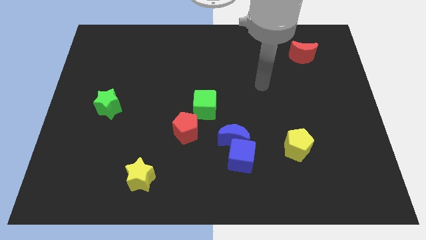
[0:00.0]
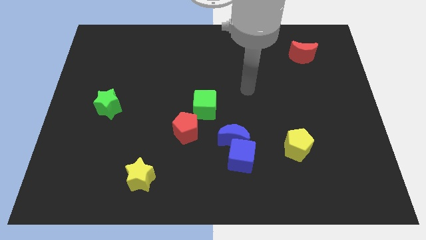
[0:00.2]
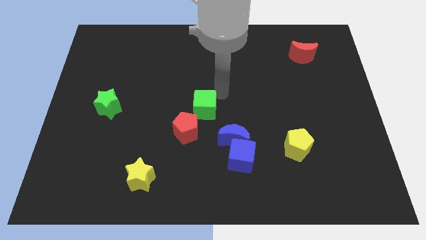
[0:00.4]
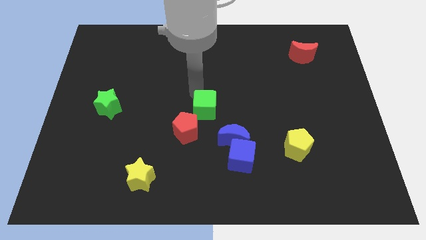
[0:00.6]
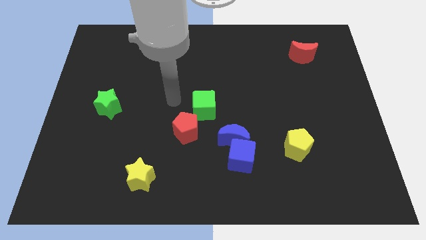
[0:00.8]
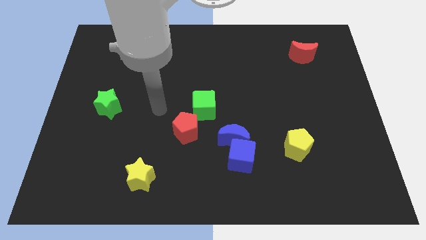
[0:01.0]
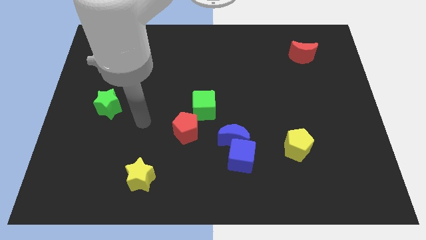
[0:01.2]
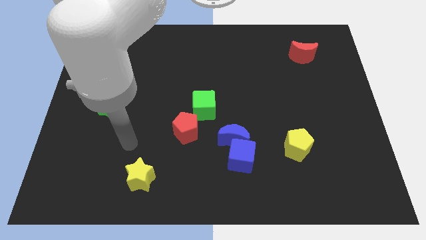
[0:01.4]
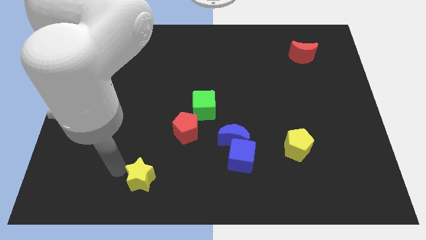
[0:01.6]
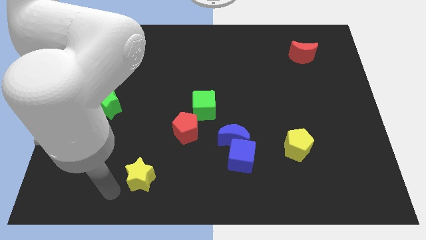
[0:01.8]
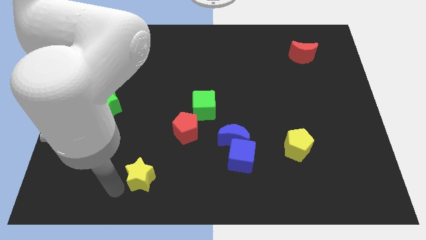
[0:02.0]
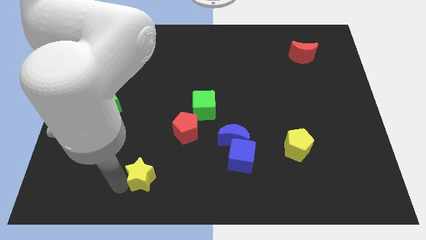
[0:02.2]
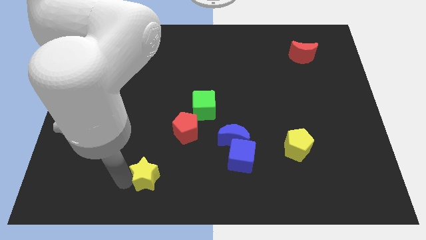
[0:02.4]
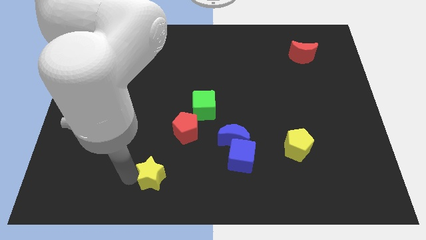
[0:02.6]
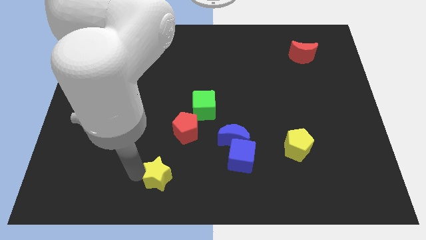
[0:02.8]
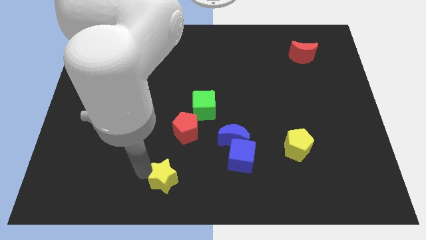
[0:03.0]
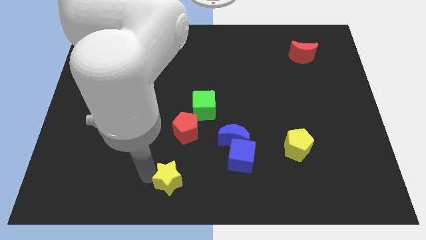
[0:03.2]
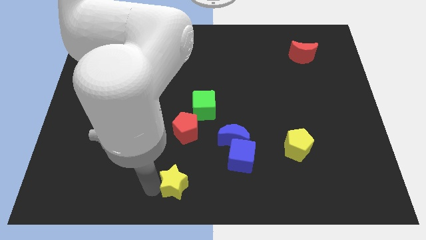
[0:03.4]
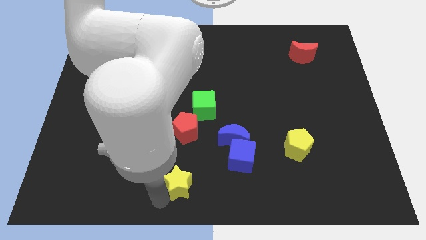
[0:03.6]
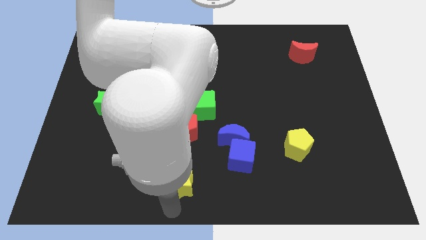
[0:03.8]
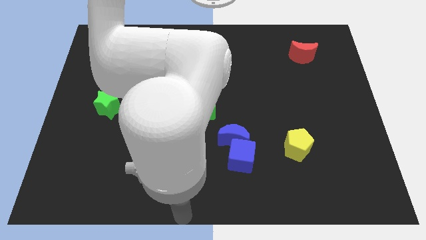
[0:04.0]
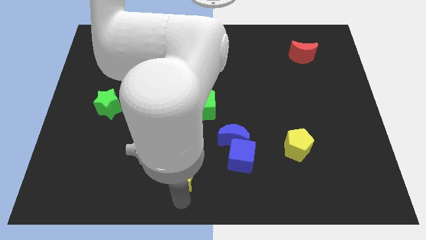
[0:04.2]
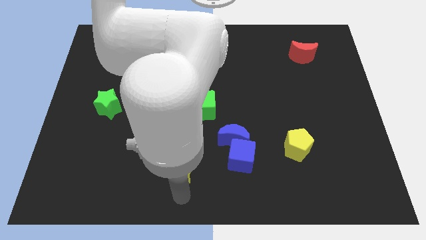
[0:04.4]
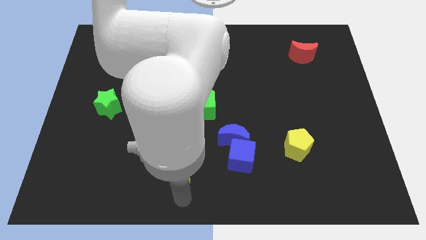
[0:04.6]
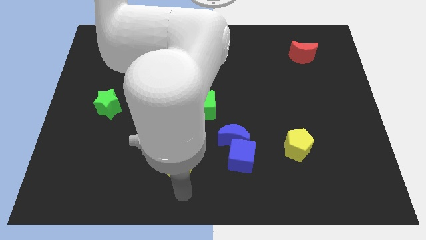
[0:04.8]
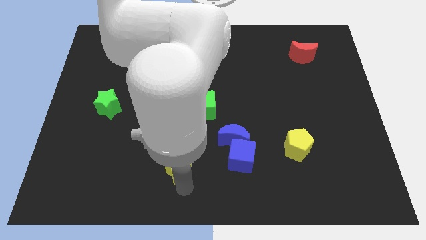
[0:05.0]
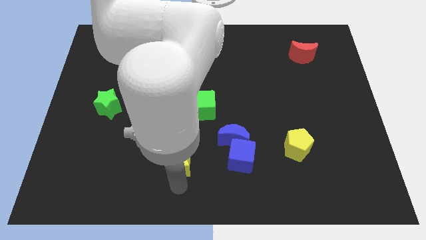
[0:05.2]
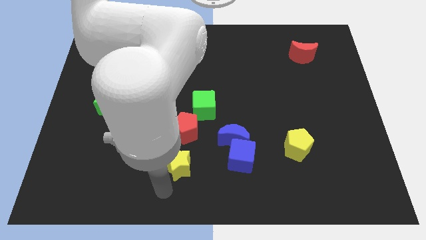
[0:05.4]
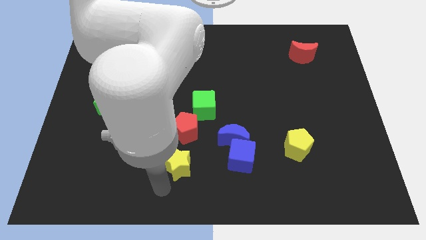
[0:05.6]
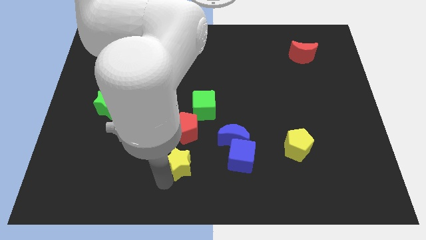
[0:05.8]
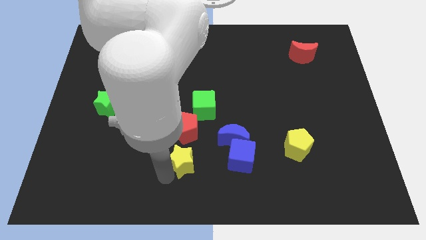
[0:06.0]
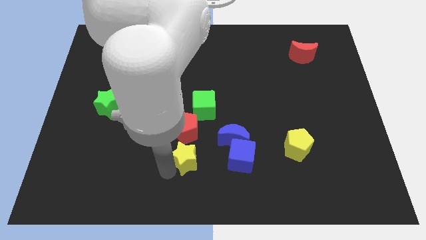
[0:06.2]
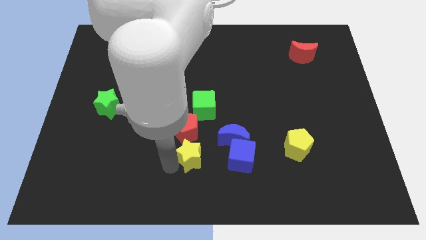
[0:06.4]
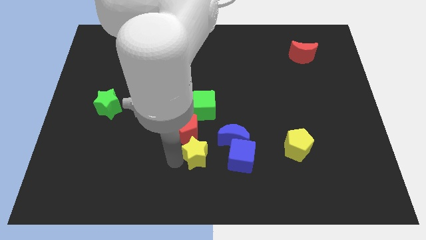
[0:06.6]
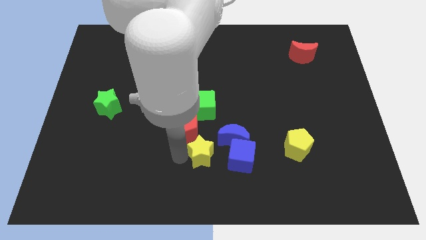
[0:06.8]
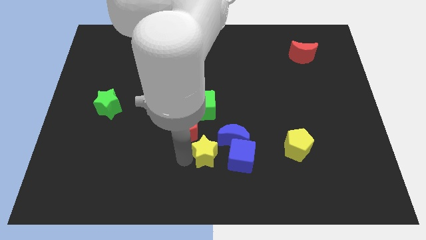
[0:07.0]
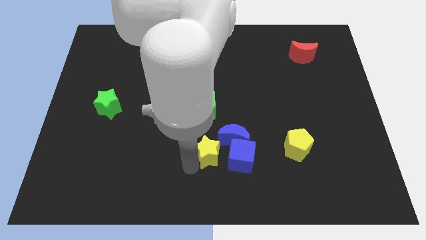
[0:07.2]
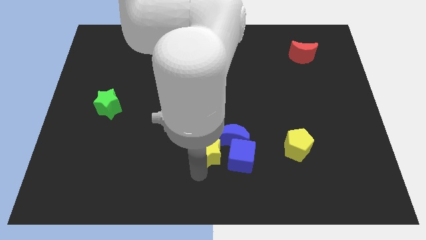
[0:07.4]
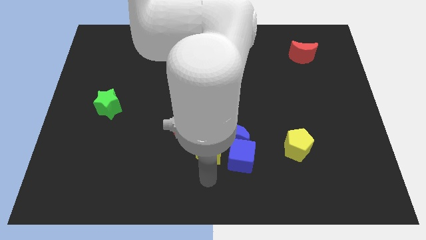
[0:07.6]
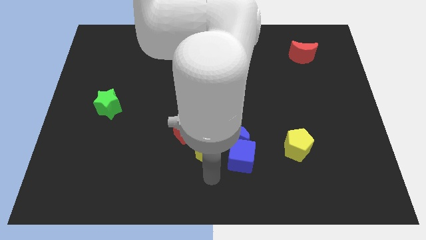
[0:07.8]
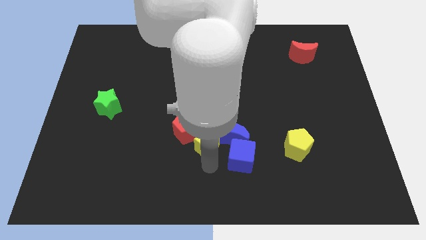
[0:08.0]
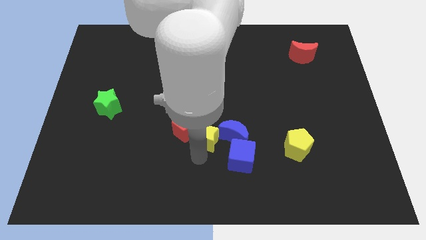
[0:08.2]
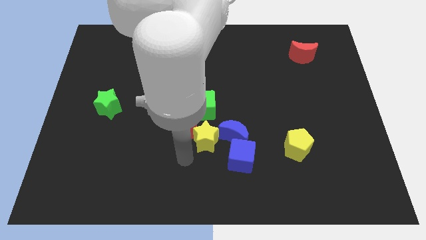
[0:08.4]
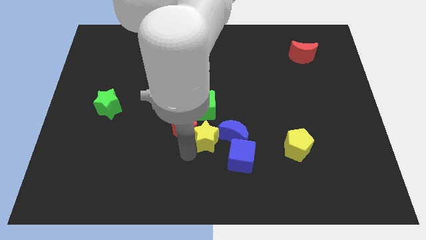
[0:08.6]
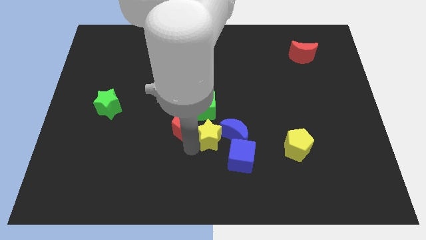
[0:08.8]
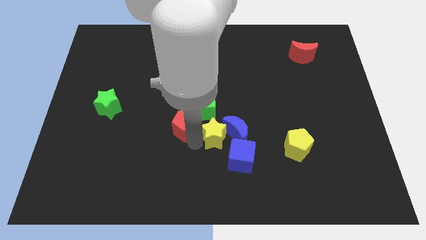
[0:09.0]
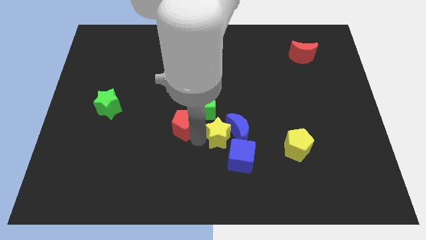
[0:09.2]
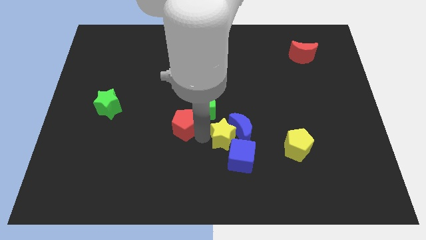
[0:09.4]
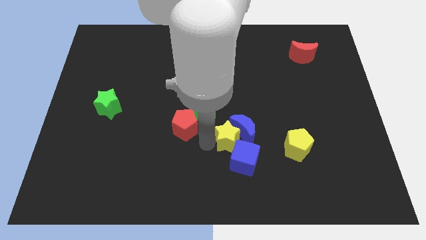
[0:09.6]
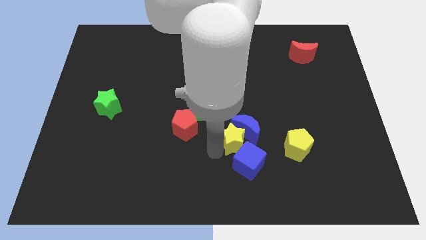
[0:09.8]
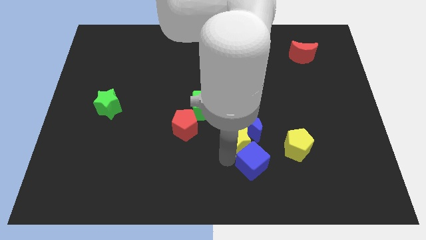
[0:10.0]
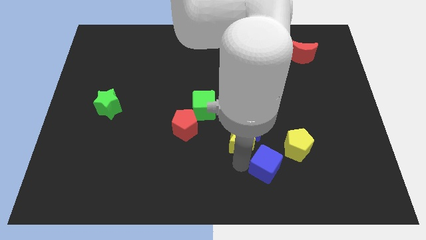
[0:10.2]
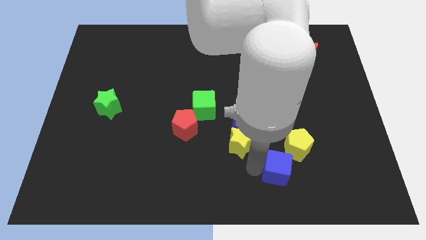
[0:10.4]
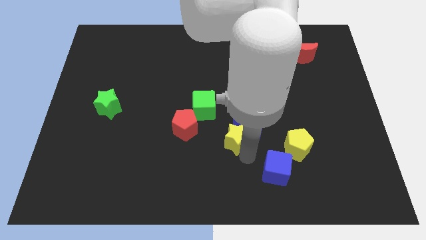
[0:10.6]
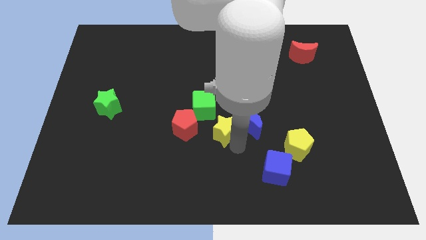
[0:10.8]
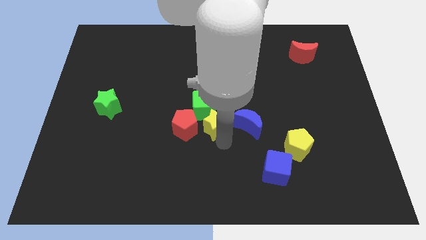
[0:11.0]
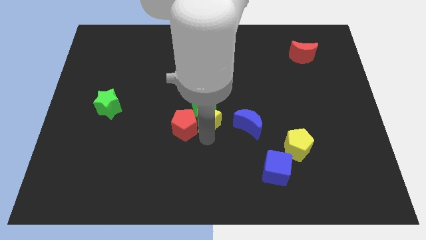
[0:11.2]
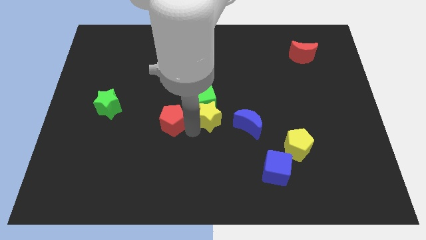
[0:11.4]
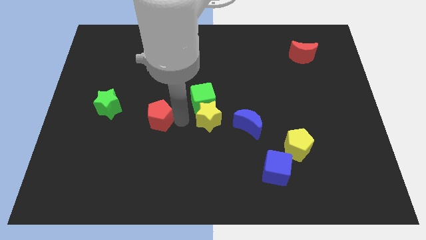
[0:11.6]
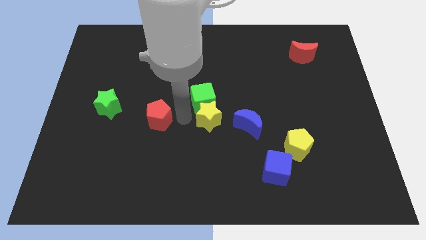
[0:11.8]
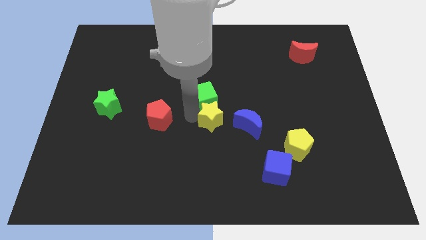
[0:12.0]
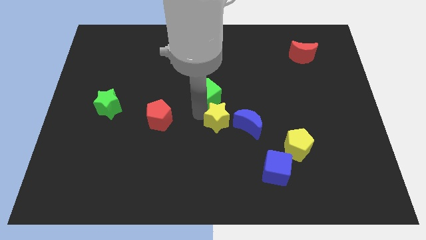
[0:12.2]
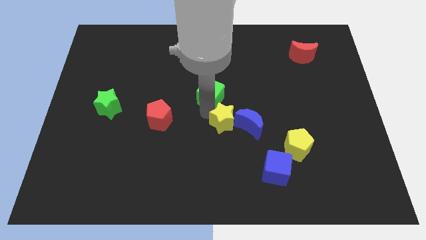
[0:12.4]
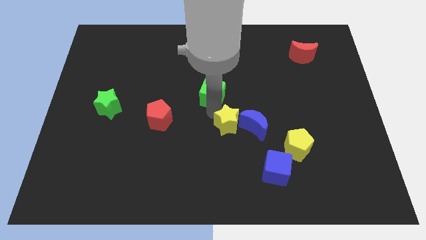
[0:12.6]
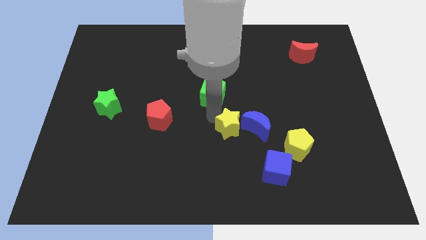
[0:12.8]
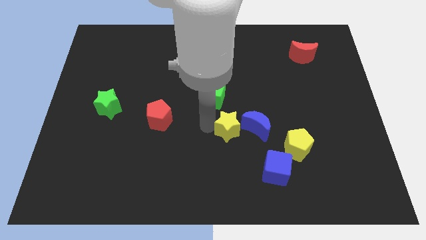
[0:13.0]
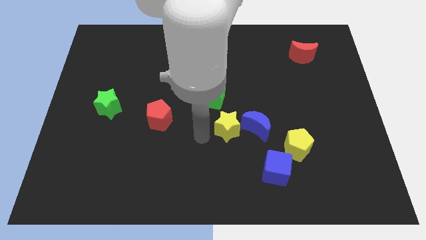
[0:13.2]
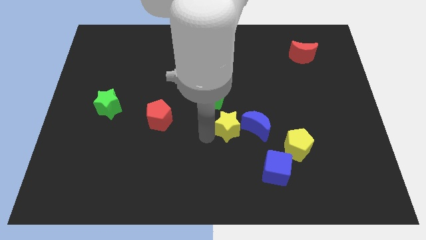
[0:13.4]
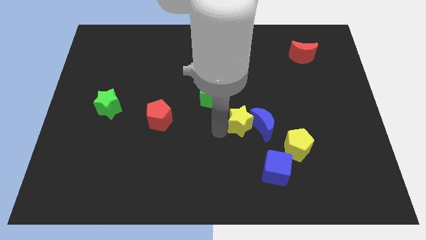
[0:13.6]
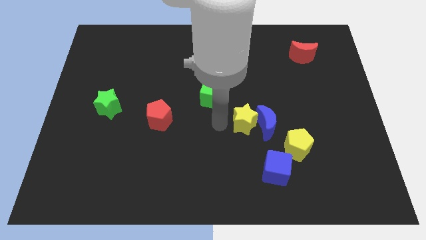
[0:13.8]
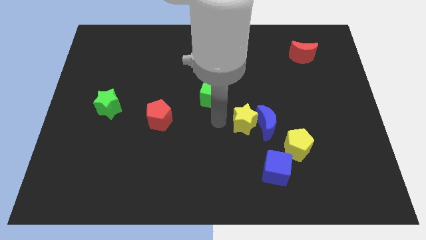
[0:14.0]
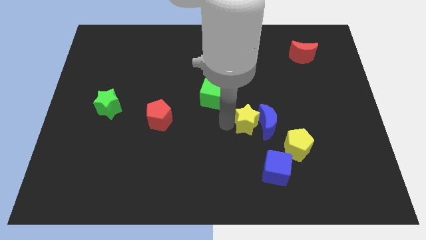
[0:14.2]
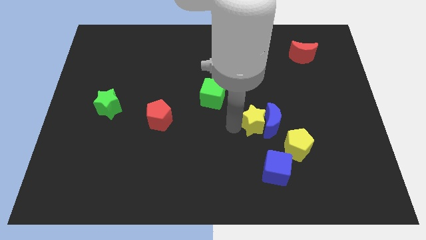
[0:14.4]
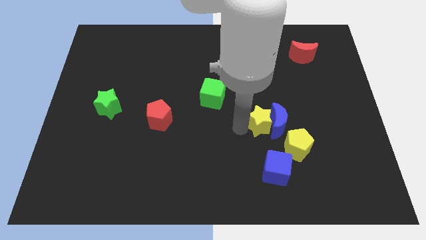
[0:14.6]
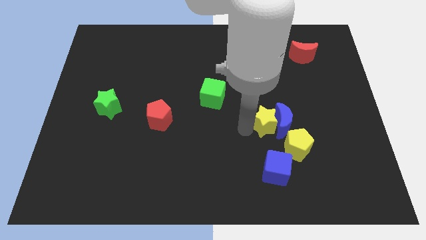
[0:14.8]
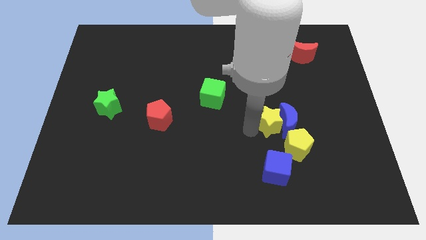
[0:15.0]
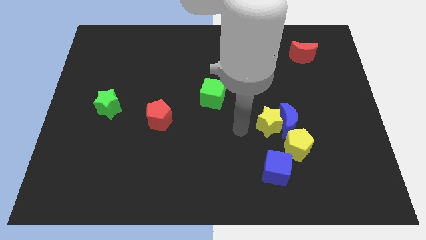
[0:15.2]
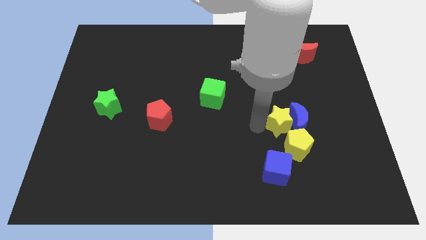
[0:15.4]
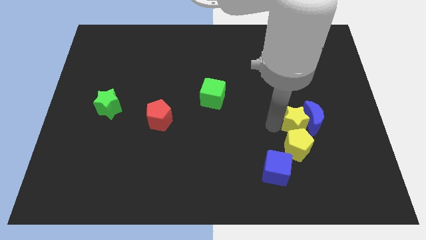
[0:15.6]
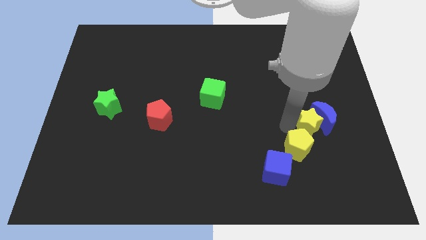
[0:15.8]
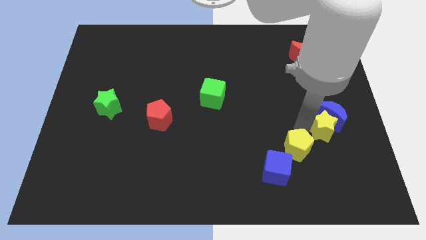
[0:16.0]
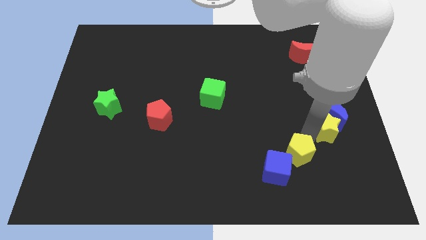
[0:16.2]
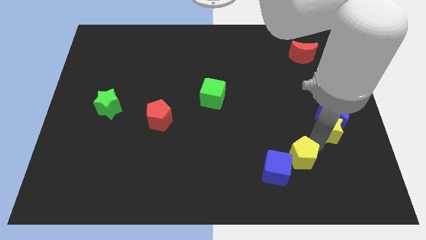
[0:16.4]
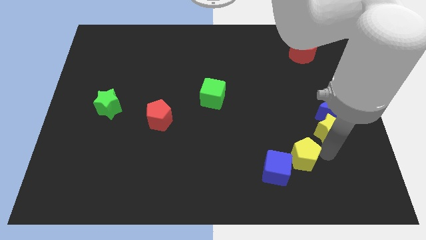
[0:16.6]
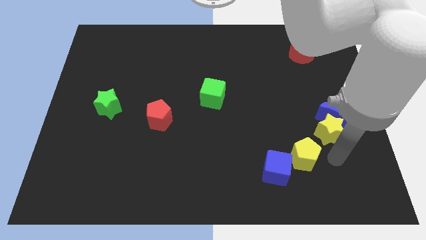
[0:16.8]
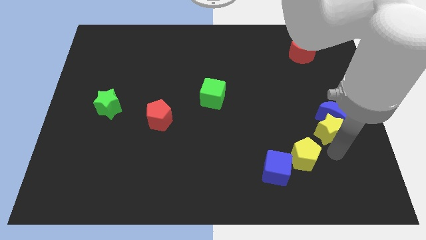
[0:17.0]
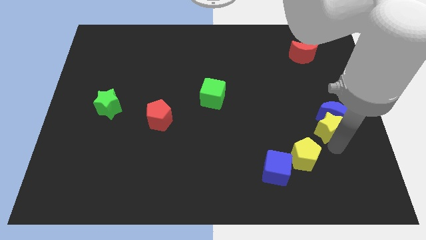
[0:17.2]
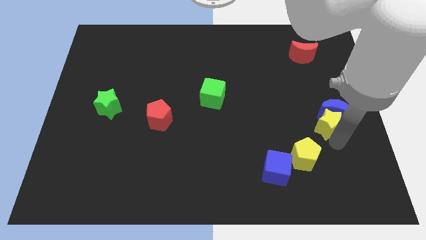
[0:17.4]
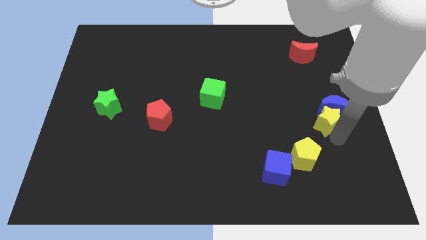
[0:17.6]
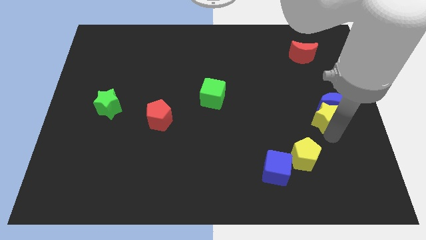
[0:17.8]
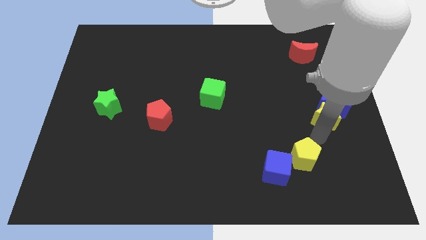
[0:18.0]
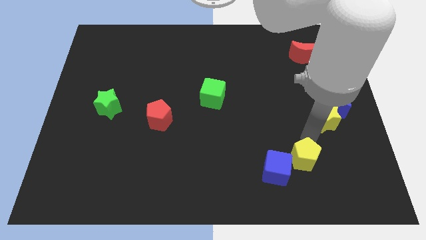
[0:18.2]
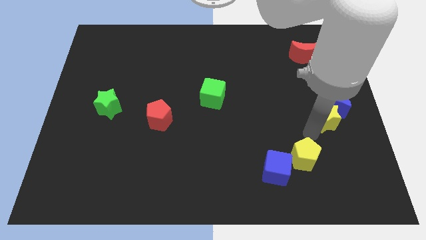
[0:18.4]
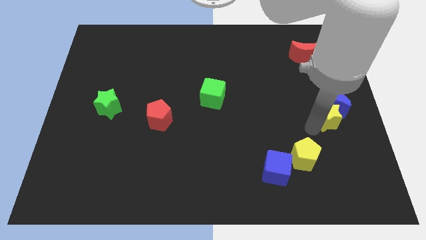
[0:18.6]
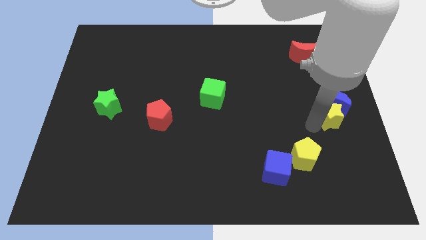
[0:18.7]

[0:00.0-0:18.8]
move the yellow star to the right side
